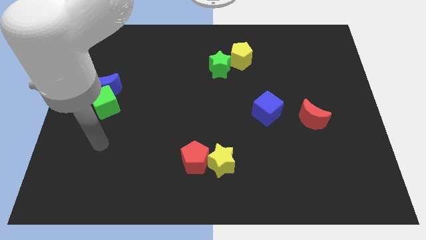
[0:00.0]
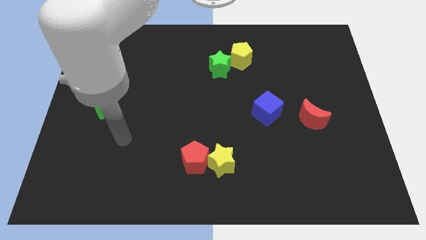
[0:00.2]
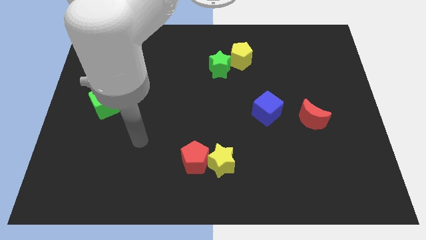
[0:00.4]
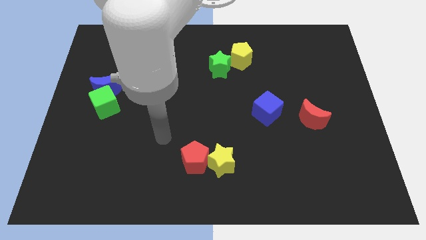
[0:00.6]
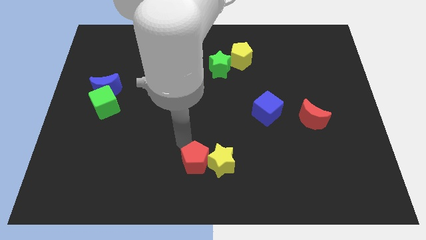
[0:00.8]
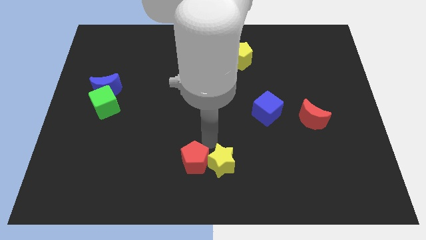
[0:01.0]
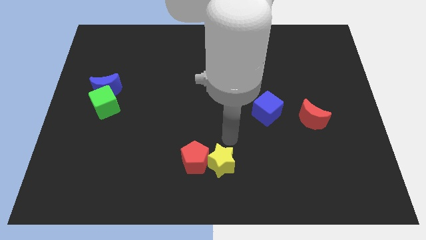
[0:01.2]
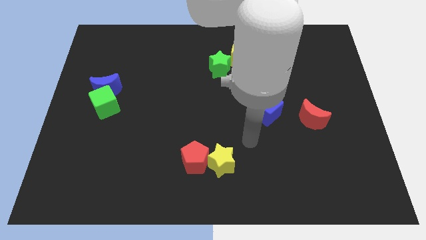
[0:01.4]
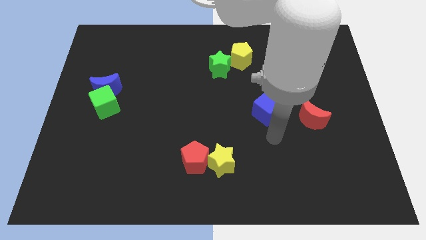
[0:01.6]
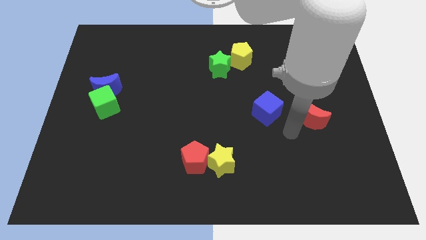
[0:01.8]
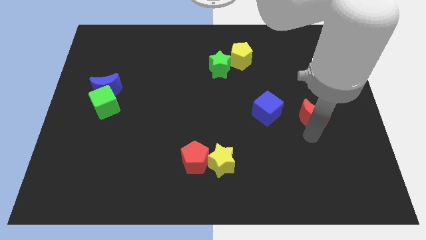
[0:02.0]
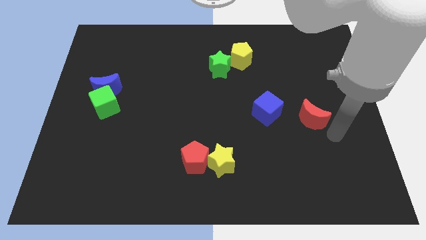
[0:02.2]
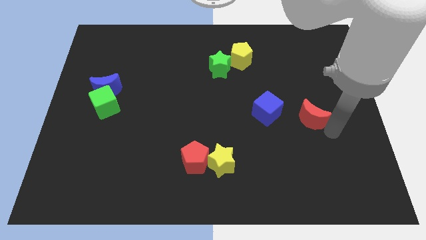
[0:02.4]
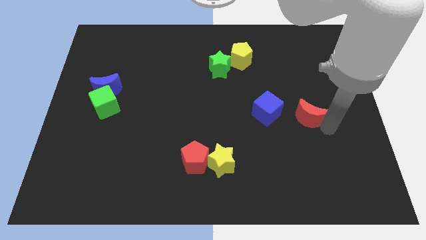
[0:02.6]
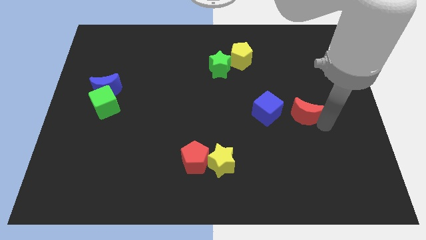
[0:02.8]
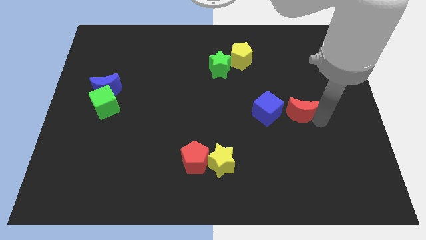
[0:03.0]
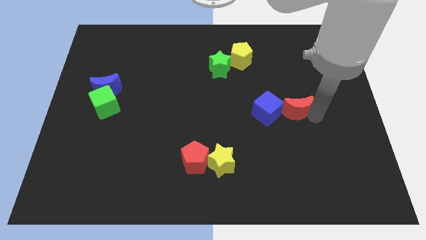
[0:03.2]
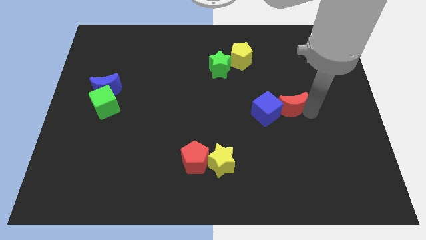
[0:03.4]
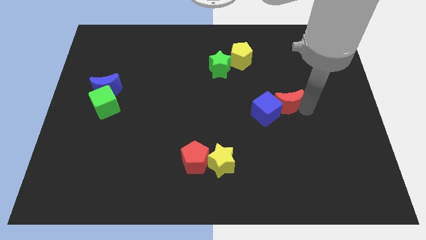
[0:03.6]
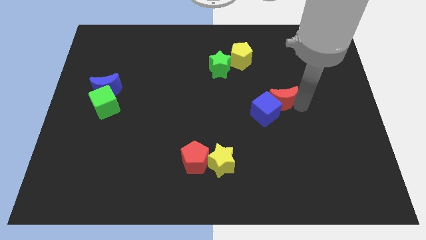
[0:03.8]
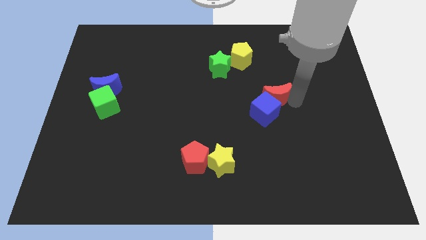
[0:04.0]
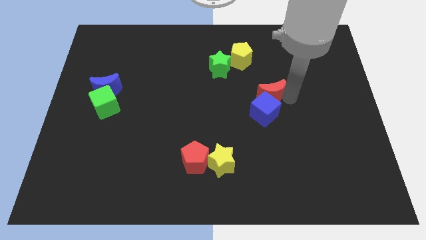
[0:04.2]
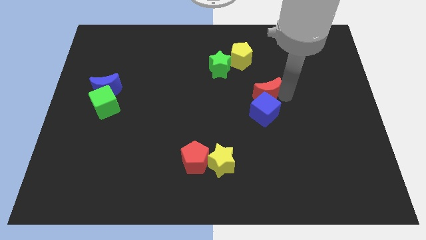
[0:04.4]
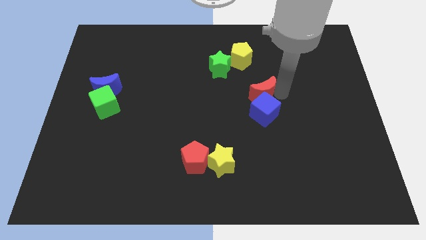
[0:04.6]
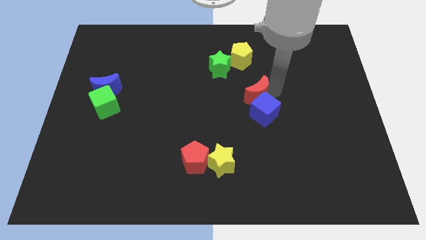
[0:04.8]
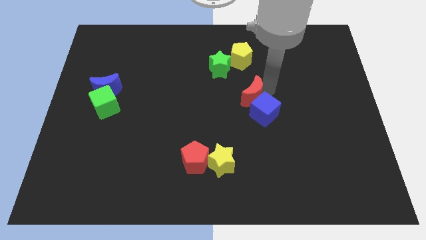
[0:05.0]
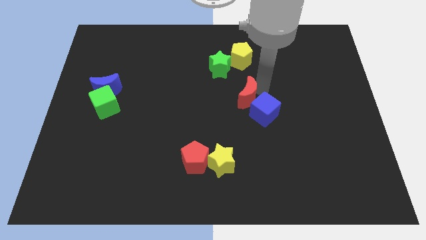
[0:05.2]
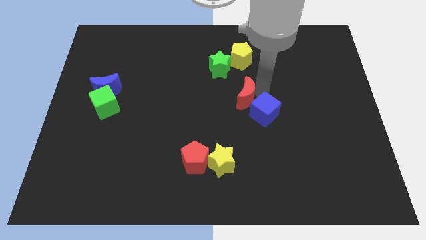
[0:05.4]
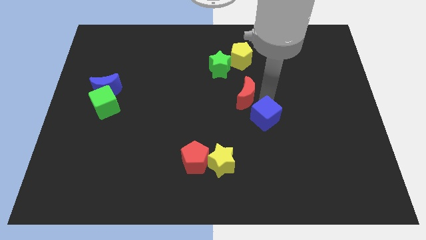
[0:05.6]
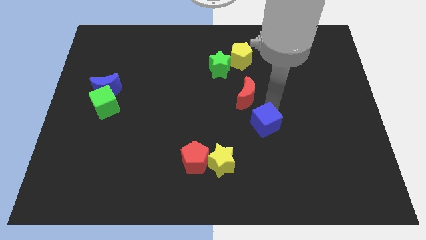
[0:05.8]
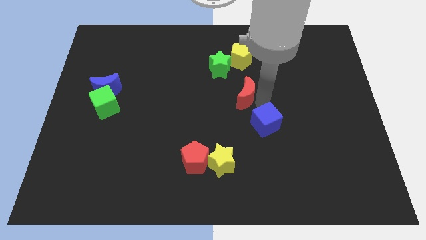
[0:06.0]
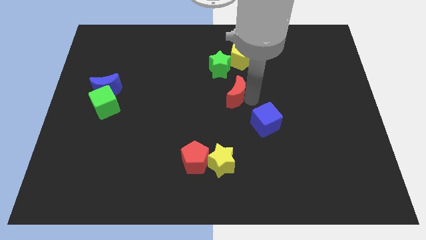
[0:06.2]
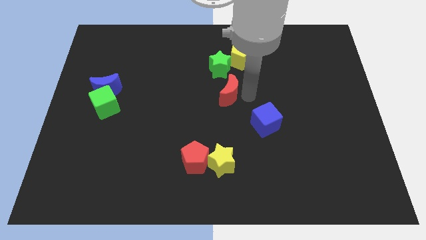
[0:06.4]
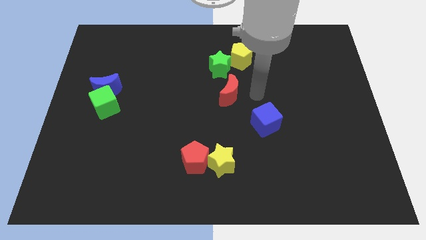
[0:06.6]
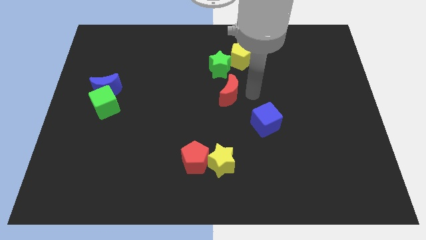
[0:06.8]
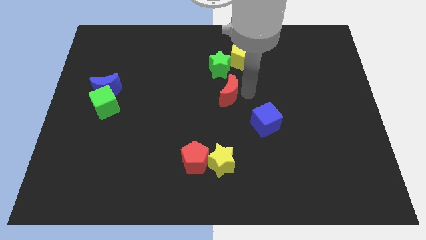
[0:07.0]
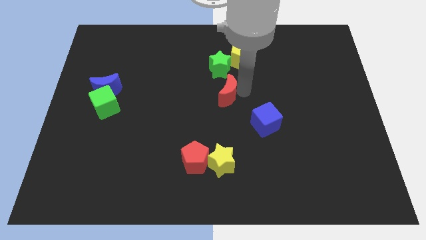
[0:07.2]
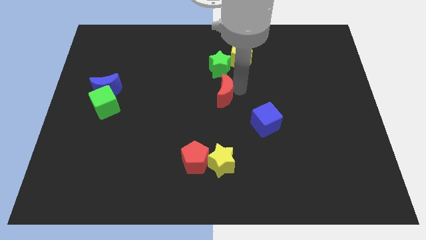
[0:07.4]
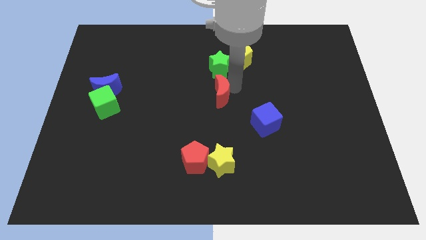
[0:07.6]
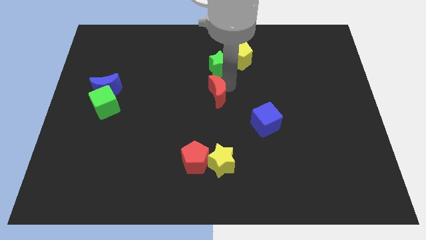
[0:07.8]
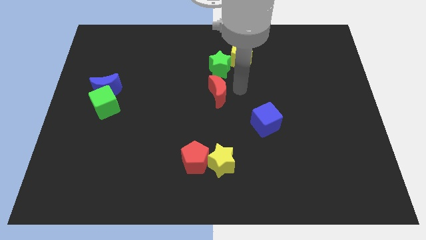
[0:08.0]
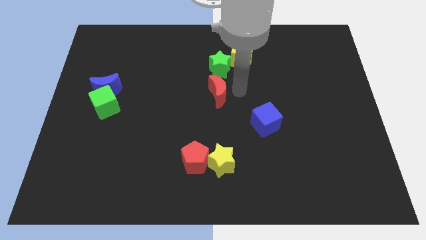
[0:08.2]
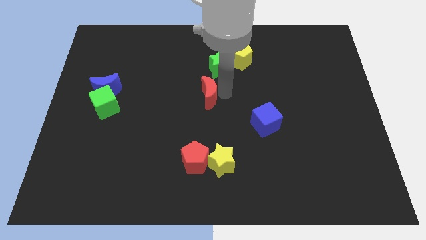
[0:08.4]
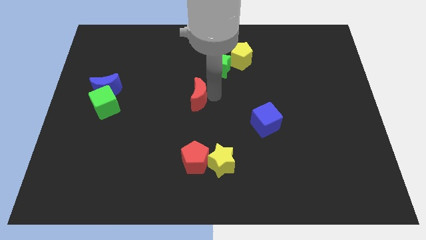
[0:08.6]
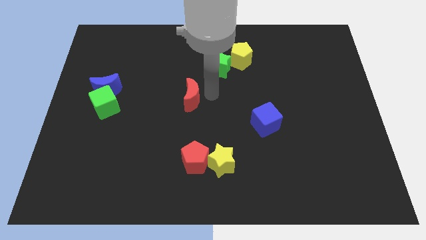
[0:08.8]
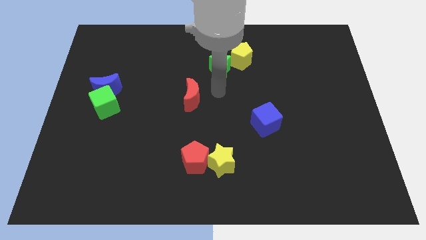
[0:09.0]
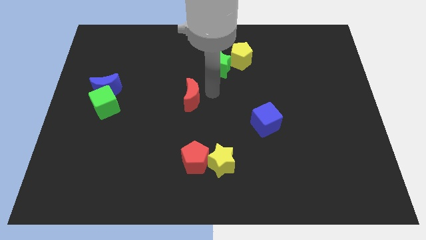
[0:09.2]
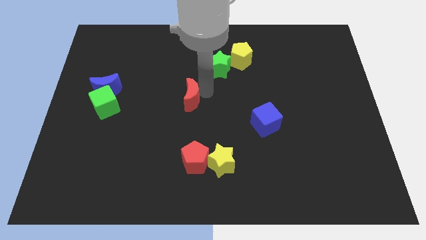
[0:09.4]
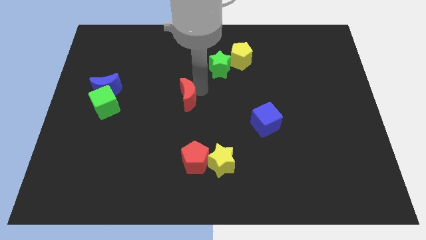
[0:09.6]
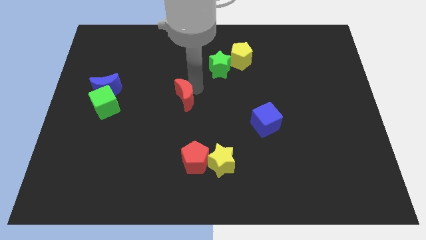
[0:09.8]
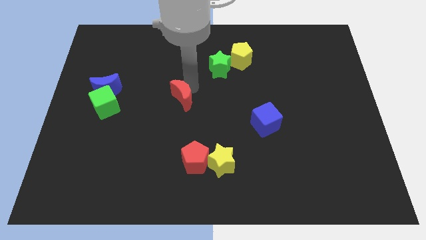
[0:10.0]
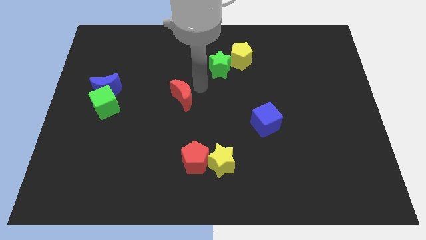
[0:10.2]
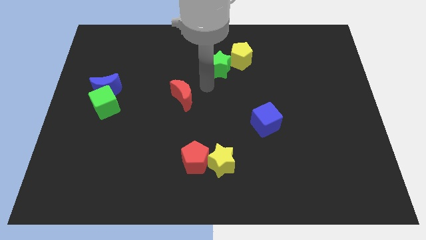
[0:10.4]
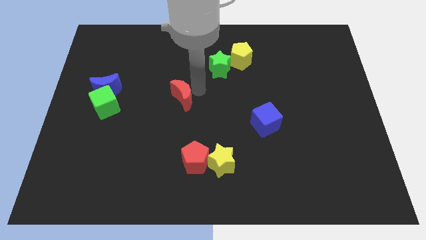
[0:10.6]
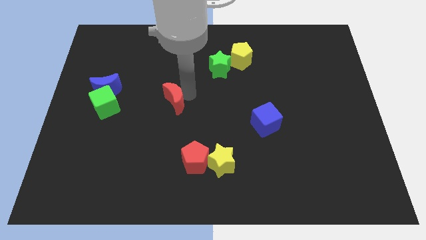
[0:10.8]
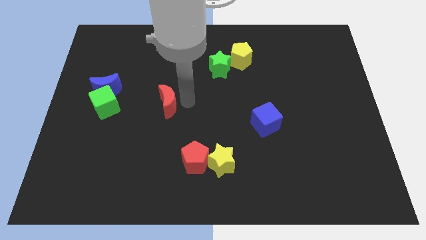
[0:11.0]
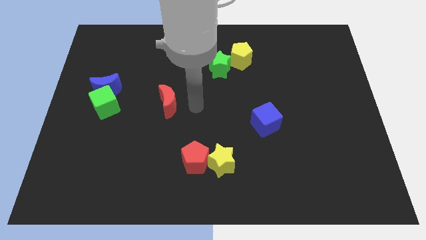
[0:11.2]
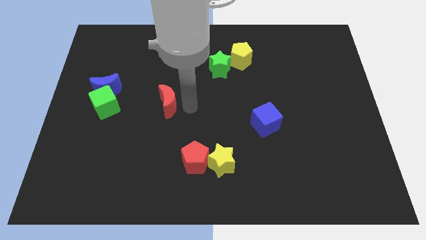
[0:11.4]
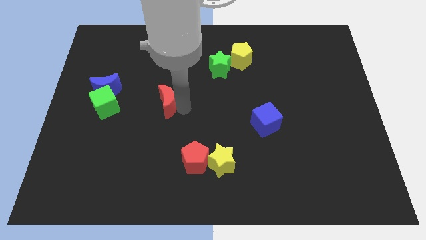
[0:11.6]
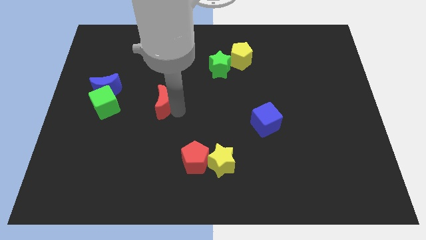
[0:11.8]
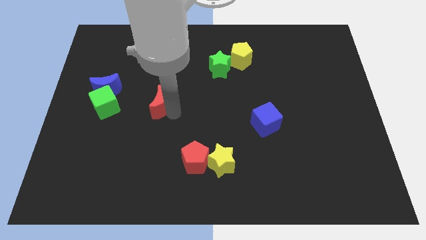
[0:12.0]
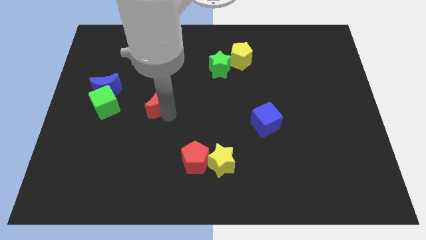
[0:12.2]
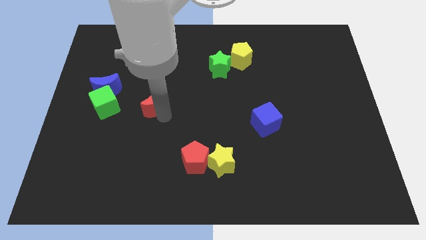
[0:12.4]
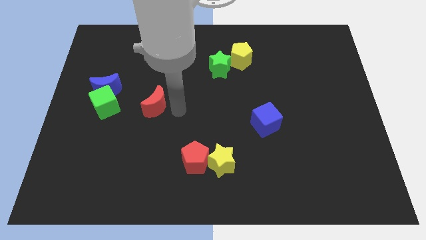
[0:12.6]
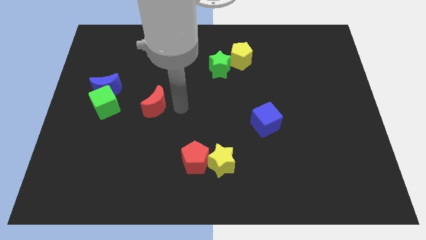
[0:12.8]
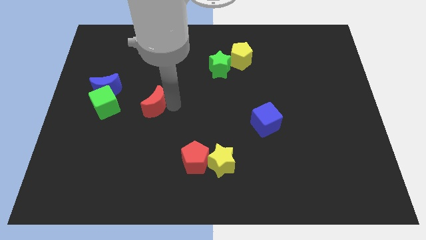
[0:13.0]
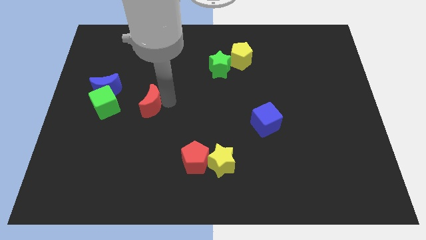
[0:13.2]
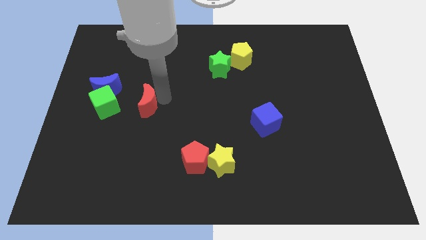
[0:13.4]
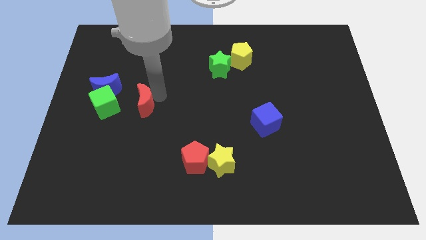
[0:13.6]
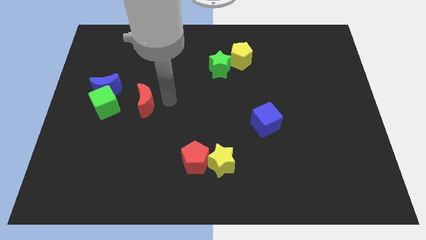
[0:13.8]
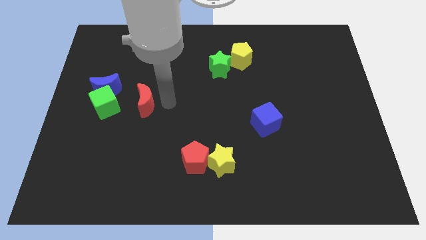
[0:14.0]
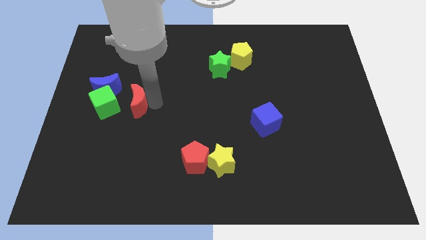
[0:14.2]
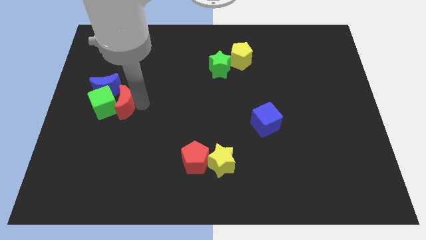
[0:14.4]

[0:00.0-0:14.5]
push the red moon to the green cube
